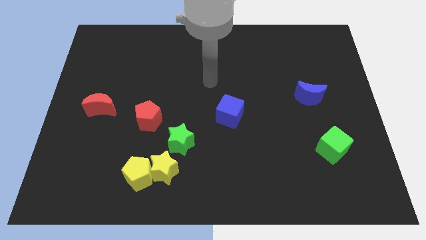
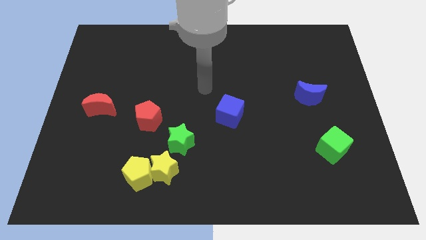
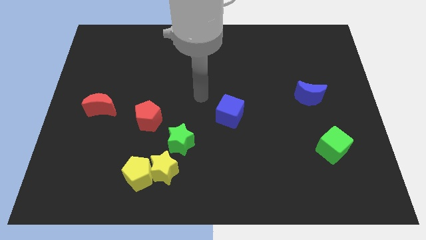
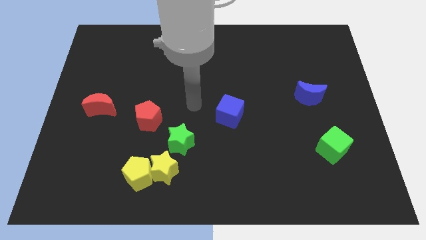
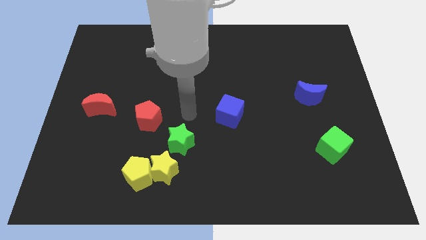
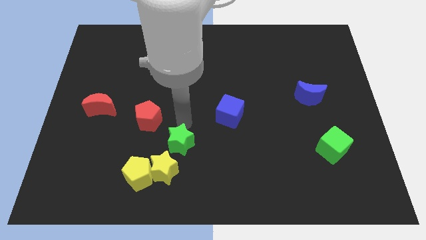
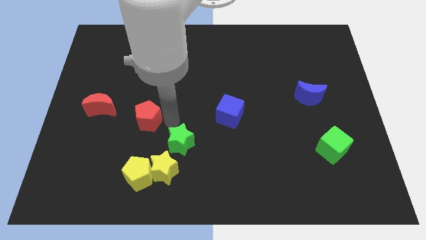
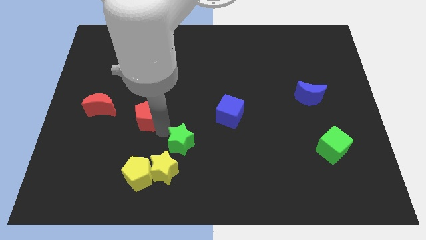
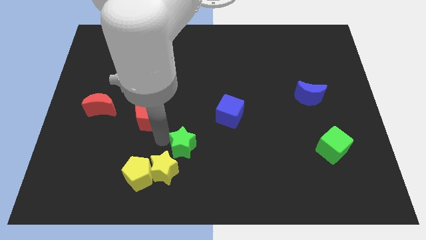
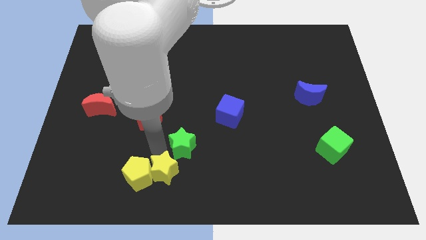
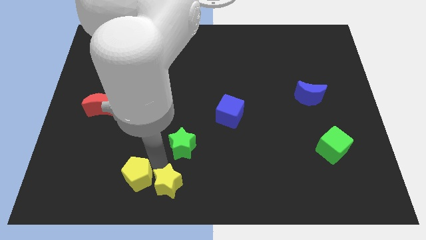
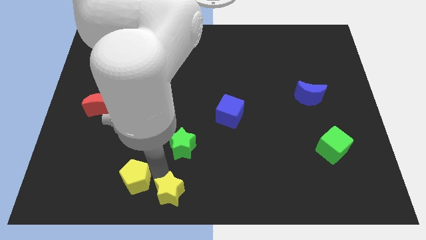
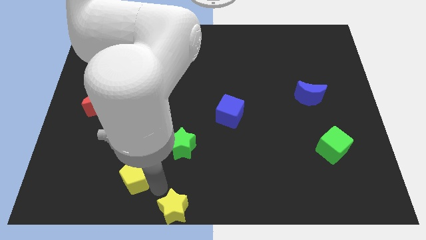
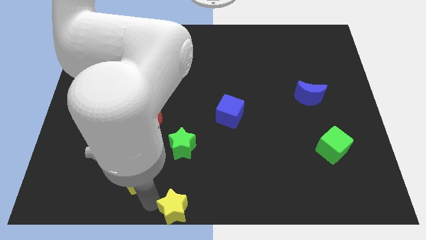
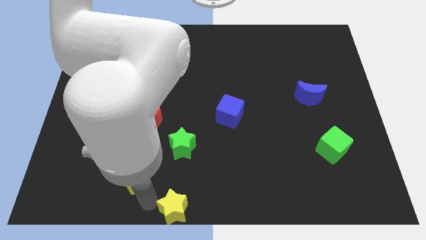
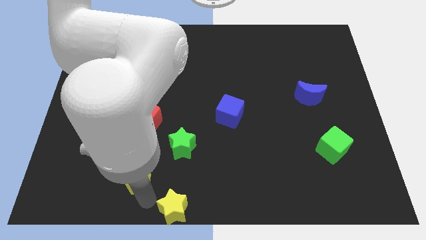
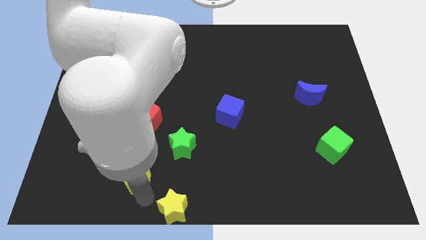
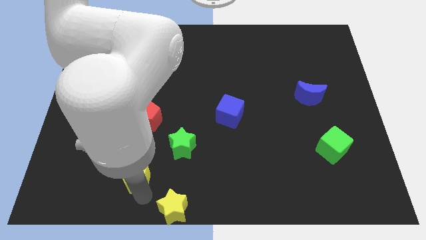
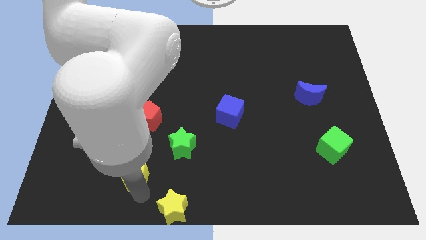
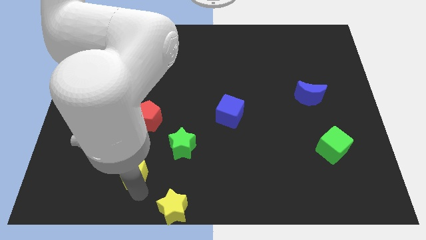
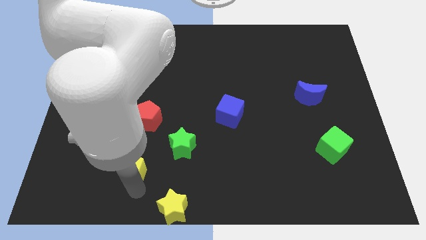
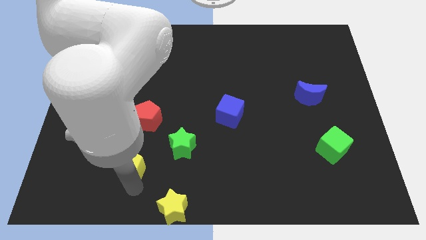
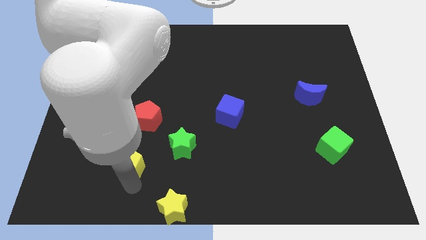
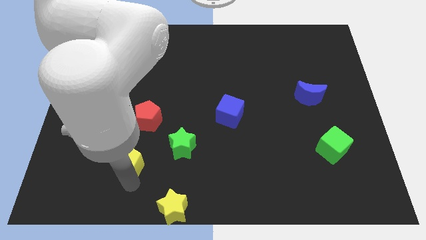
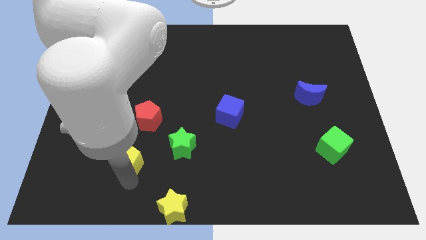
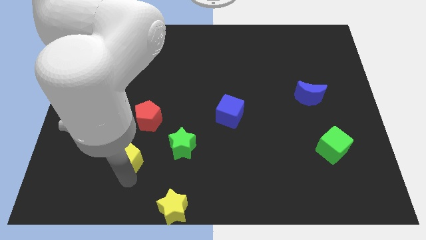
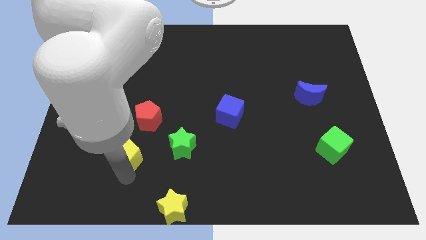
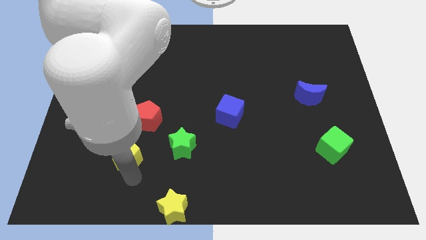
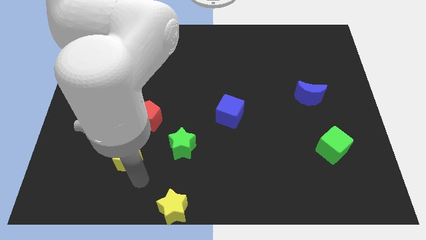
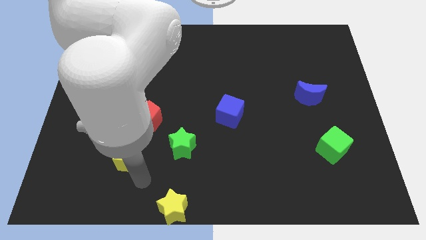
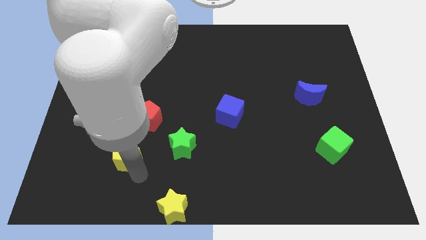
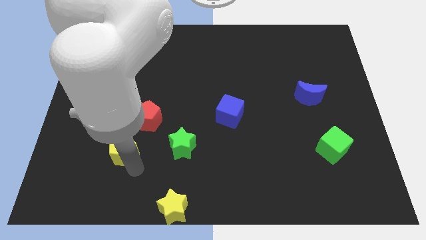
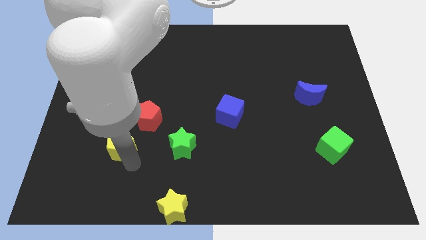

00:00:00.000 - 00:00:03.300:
move the yellow pentagon diagonally up and left a bit

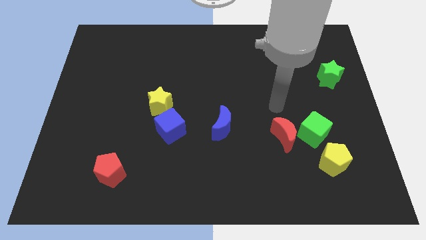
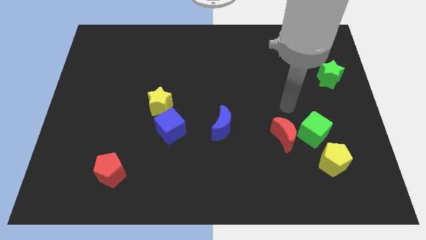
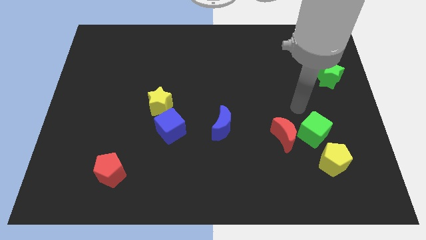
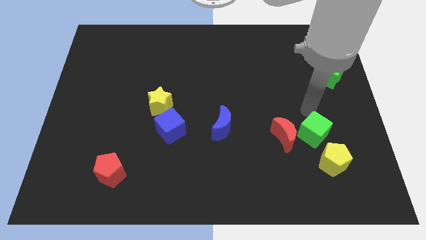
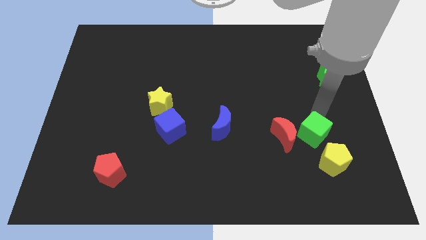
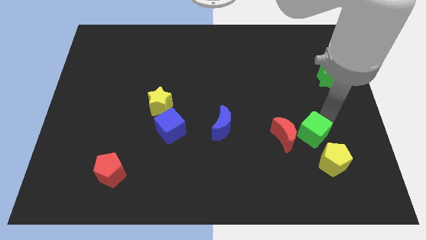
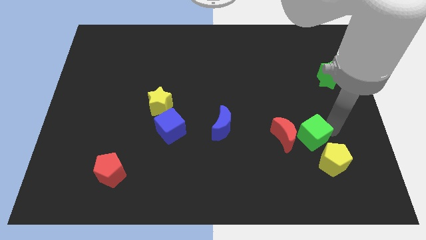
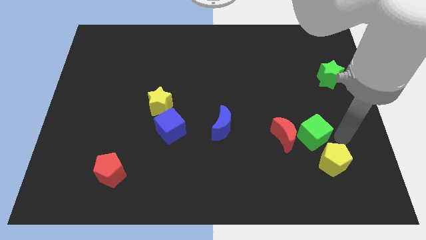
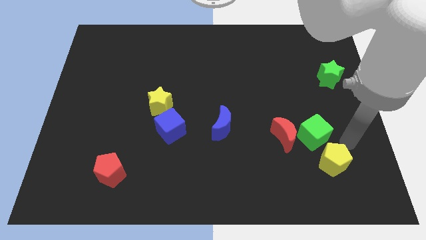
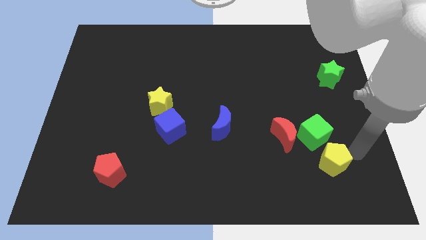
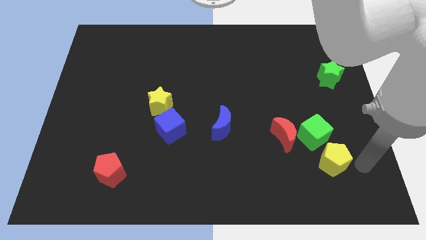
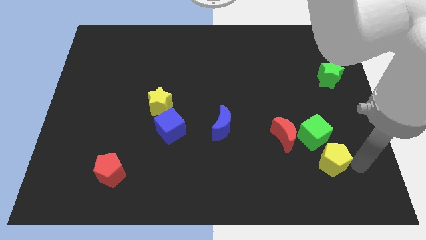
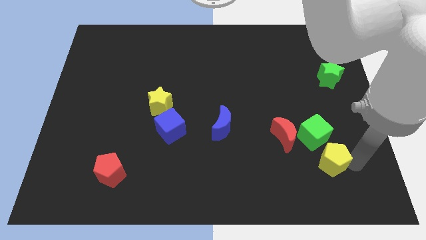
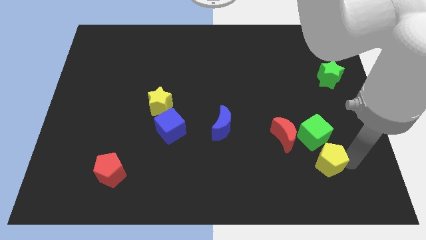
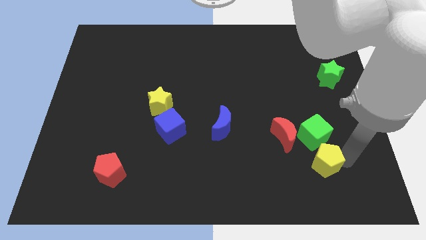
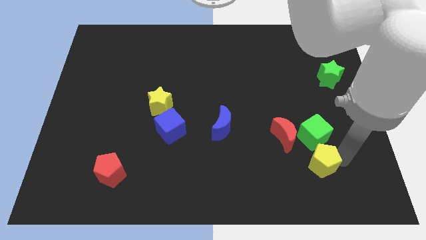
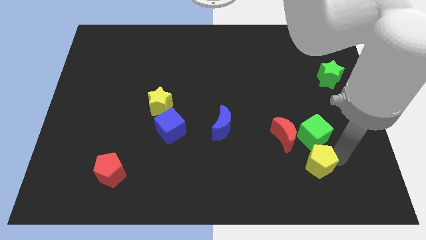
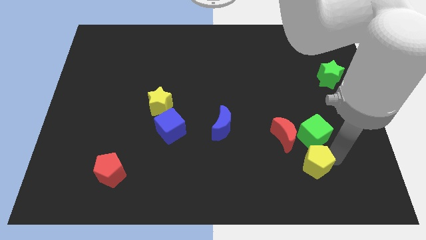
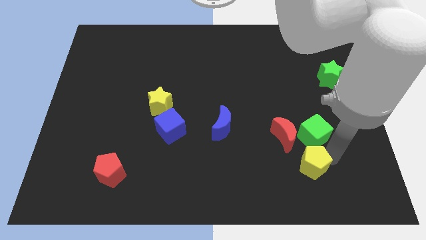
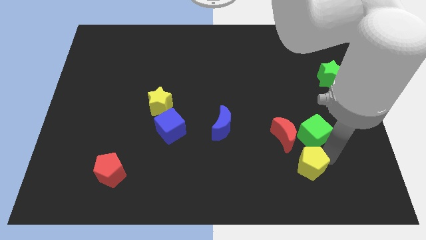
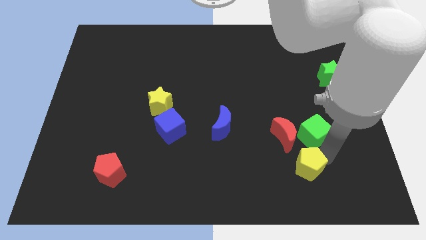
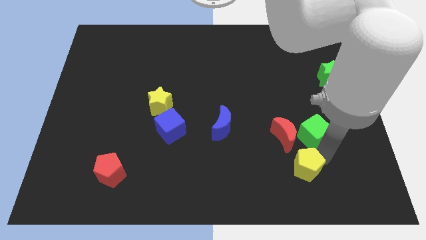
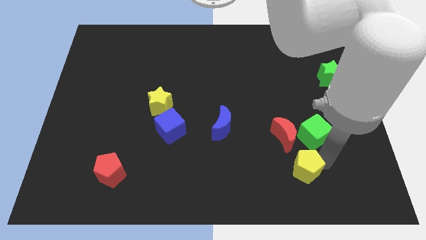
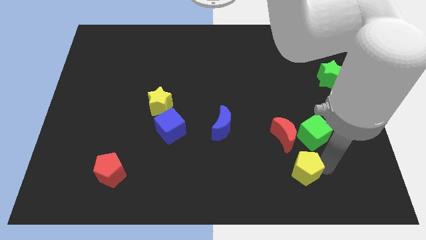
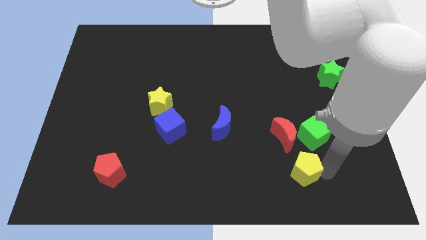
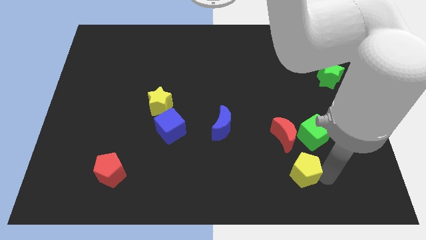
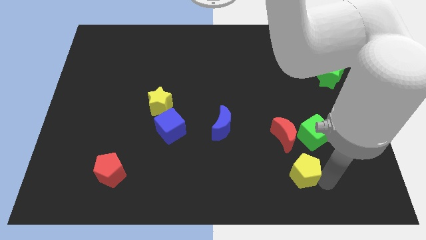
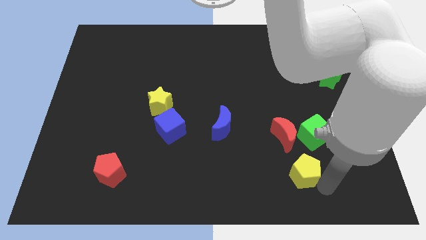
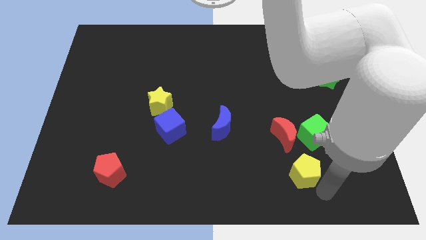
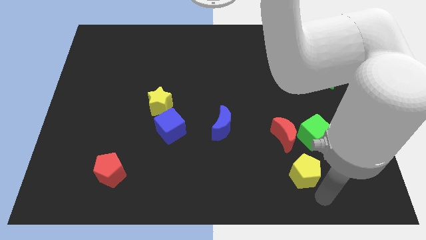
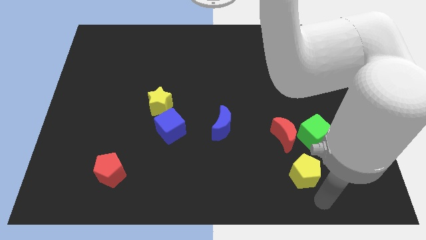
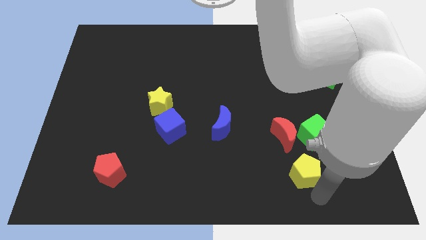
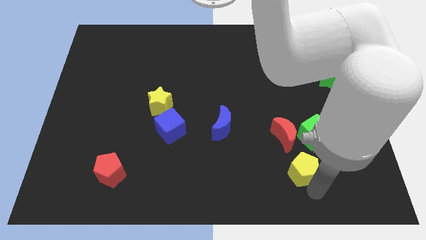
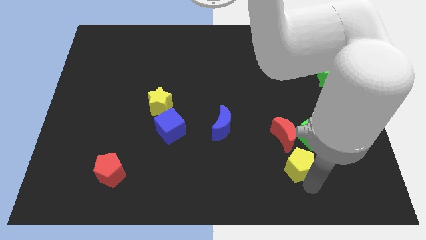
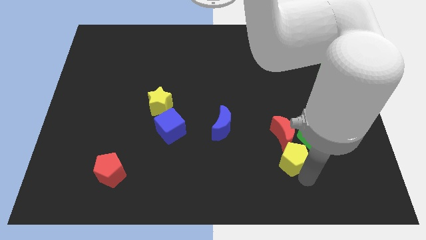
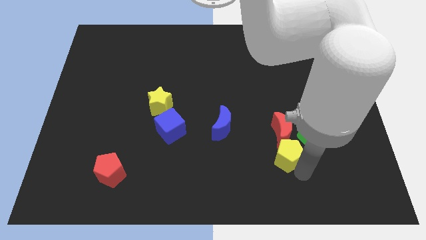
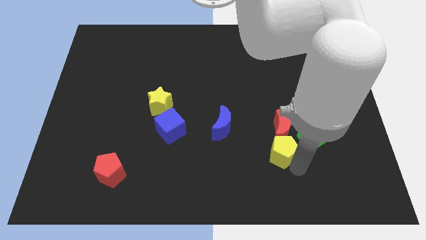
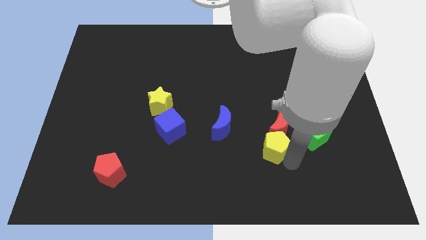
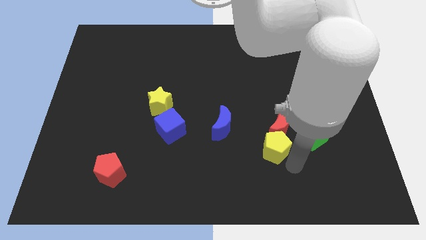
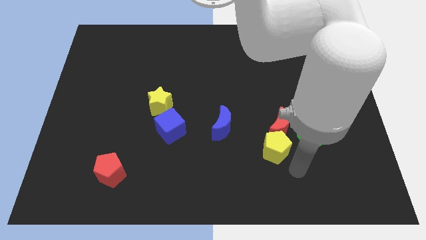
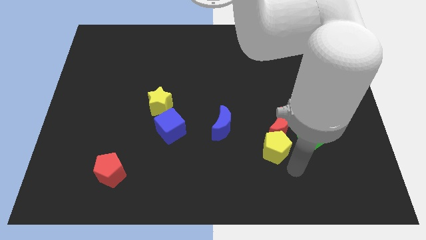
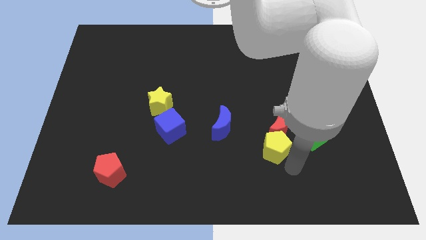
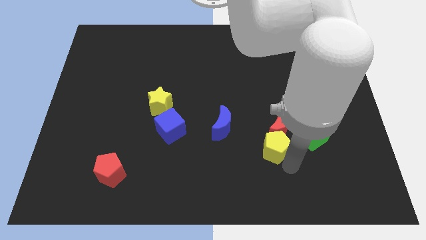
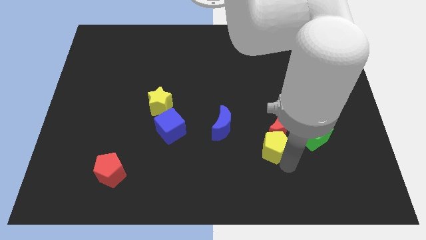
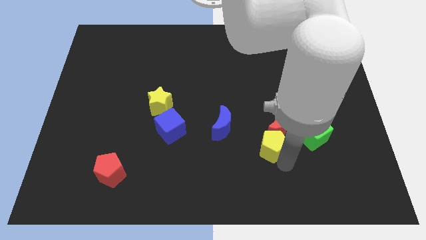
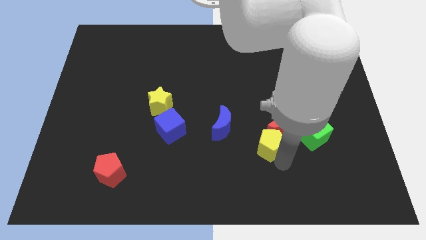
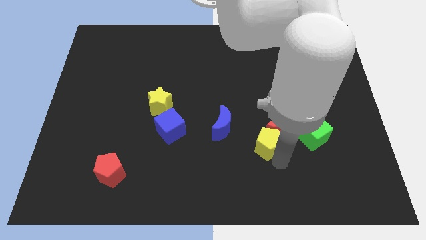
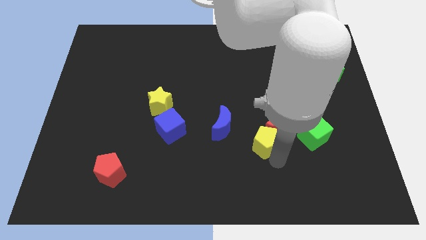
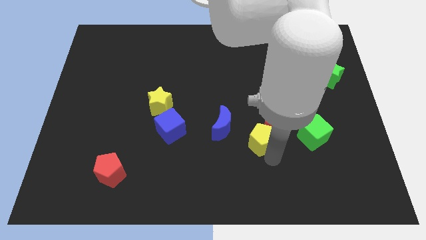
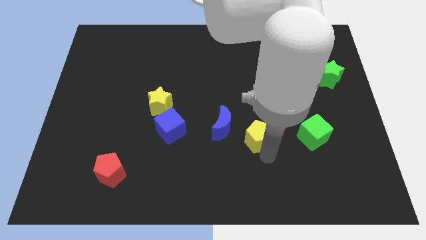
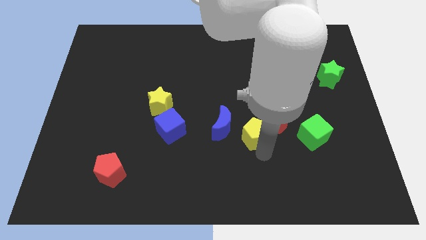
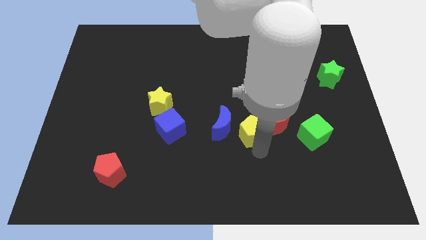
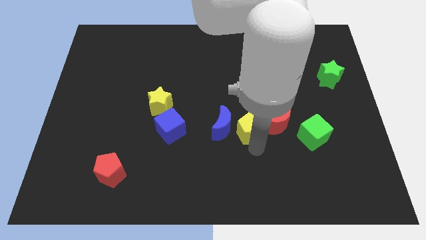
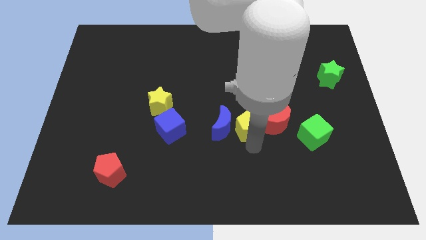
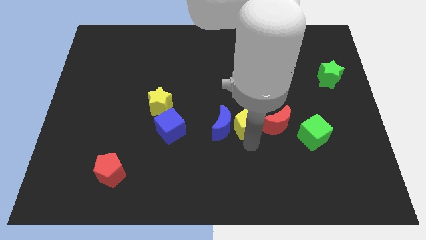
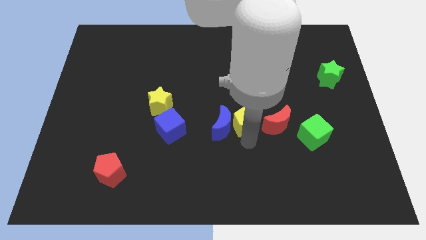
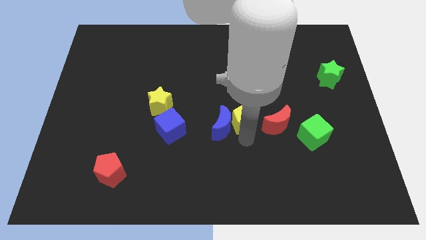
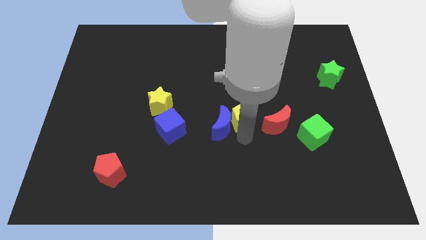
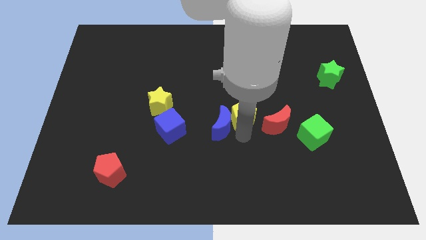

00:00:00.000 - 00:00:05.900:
slide the yellow pentagon up and then left
